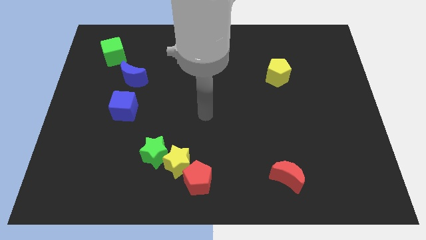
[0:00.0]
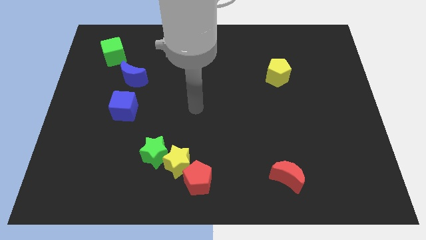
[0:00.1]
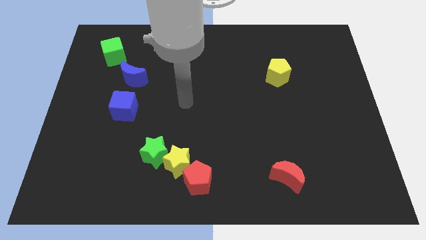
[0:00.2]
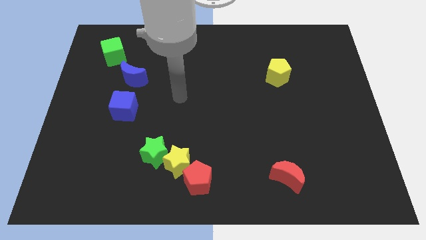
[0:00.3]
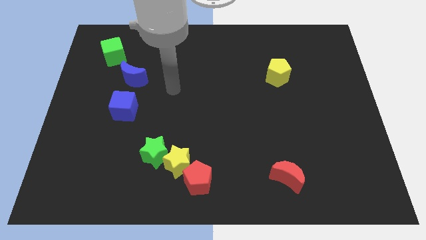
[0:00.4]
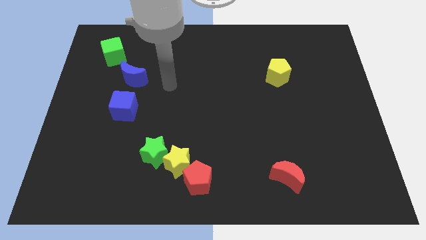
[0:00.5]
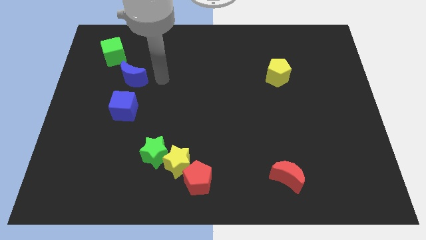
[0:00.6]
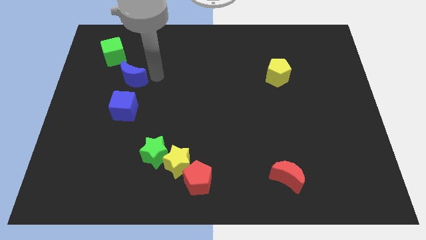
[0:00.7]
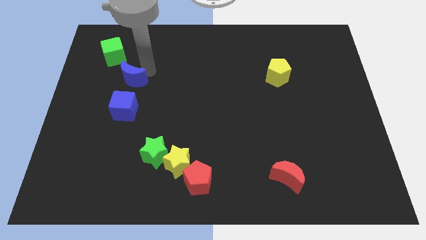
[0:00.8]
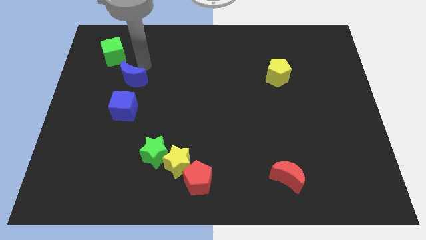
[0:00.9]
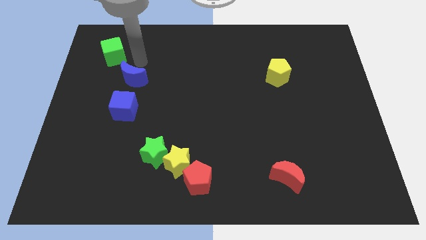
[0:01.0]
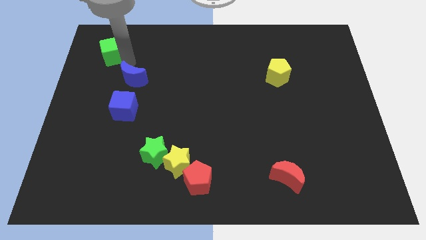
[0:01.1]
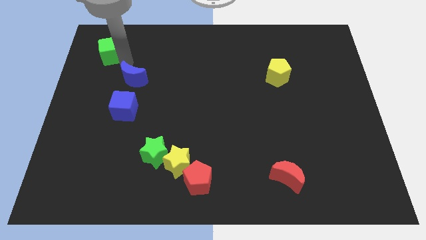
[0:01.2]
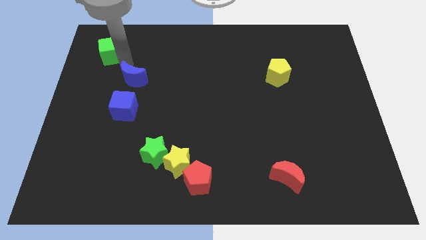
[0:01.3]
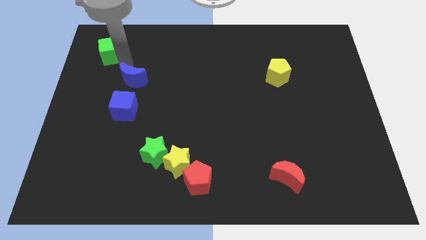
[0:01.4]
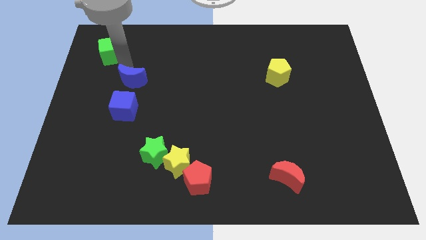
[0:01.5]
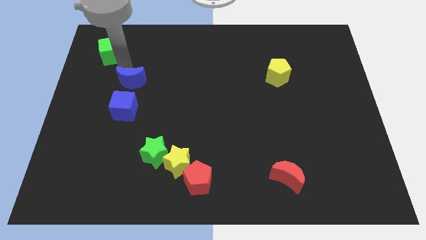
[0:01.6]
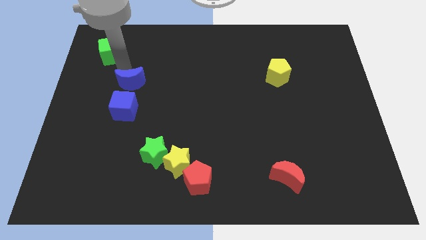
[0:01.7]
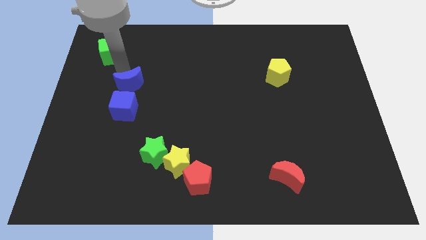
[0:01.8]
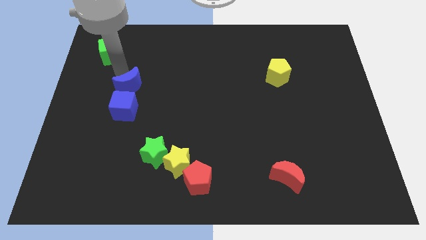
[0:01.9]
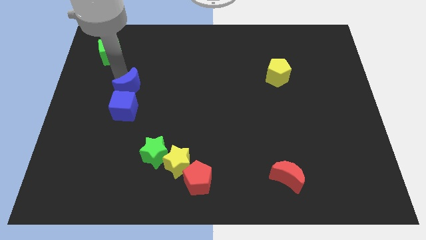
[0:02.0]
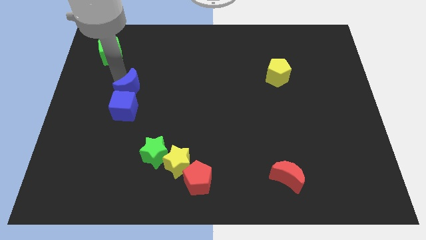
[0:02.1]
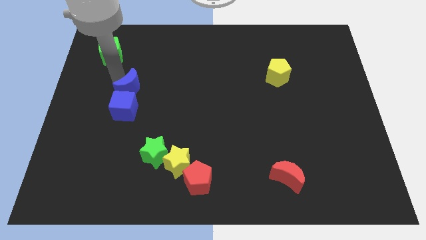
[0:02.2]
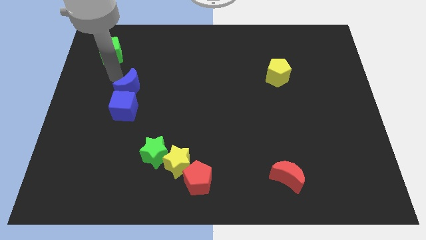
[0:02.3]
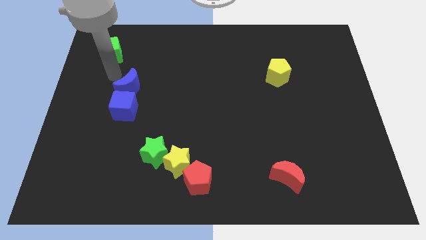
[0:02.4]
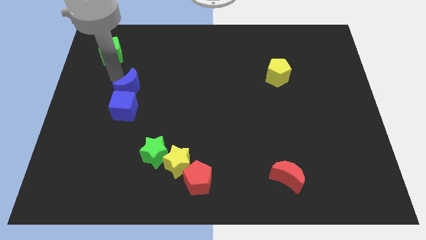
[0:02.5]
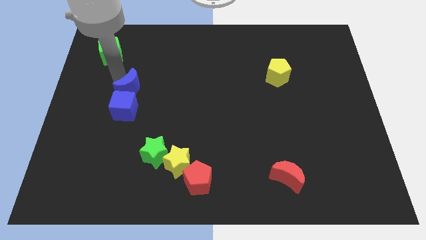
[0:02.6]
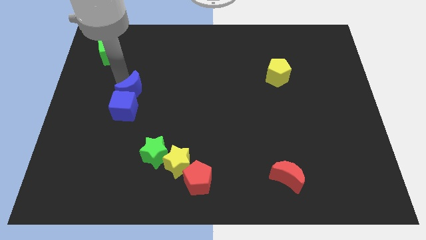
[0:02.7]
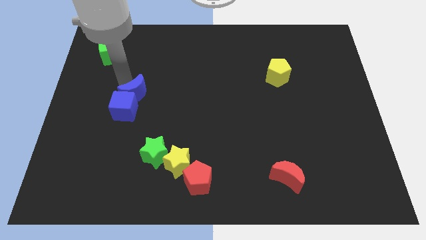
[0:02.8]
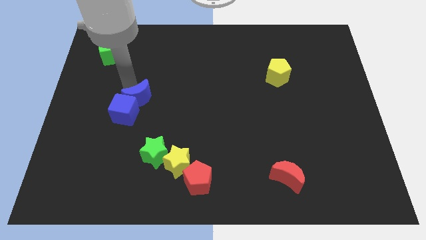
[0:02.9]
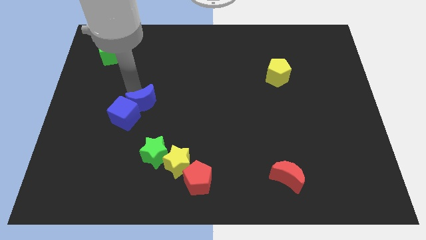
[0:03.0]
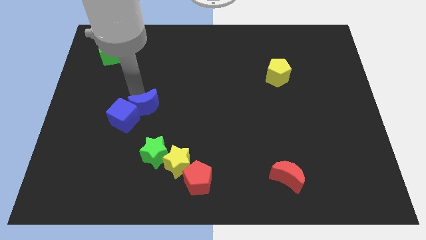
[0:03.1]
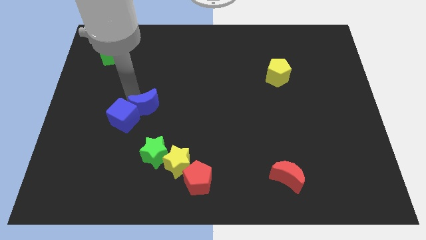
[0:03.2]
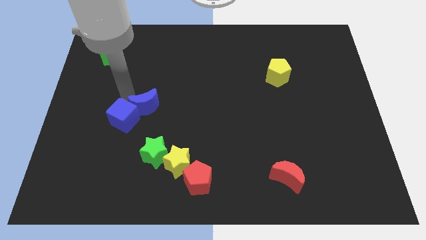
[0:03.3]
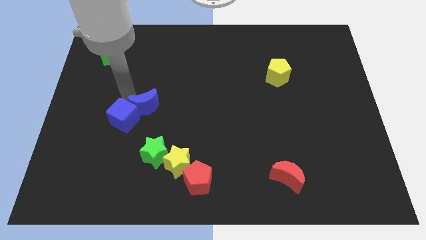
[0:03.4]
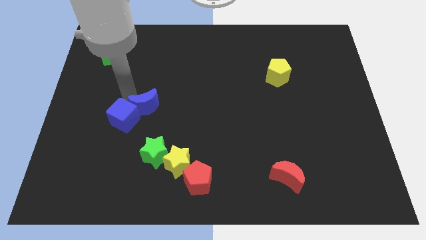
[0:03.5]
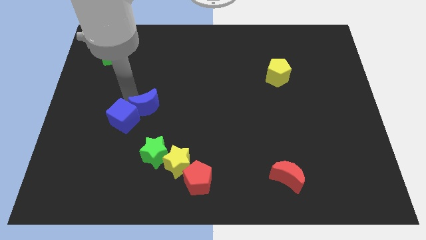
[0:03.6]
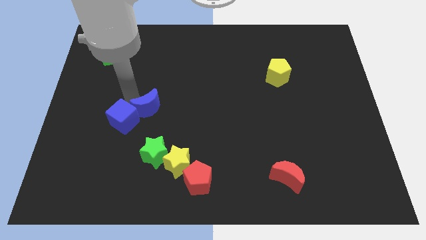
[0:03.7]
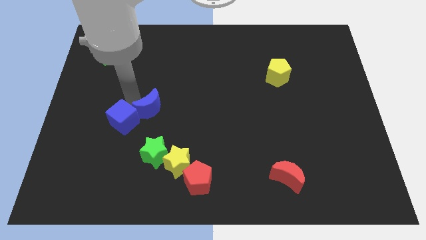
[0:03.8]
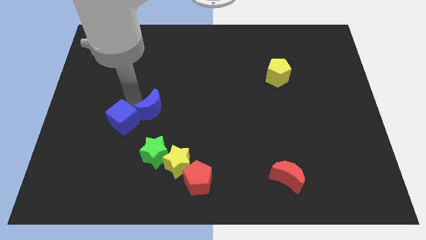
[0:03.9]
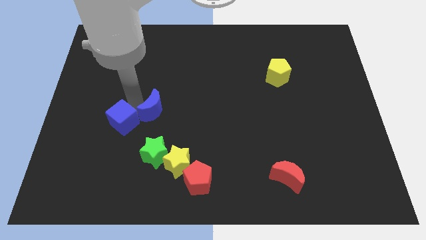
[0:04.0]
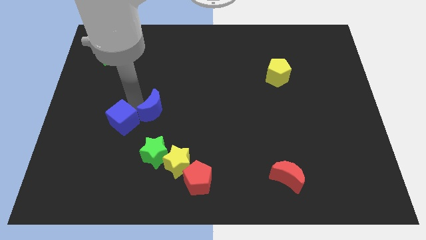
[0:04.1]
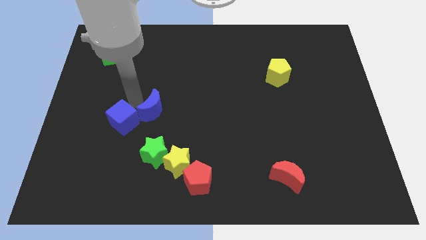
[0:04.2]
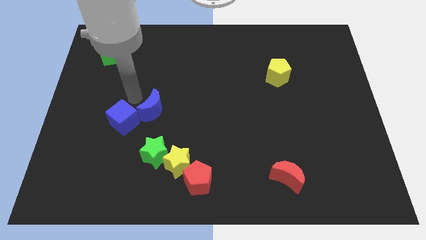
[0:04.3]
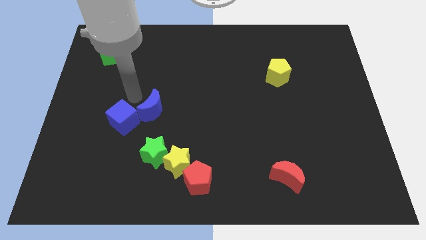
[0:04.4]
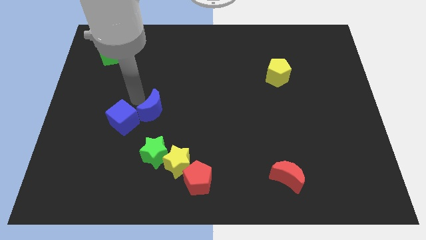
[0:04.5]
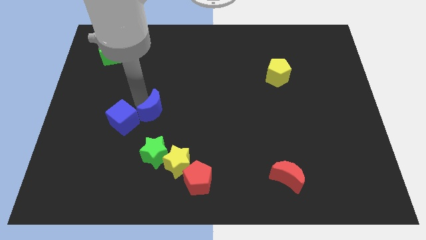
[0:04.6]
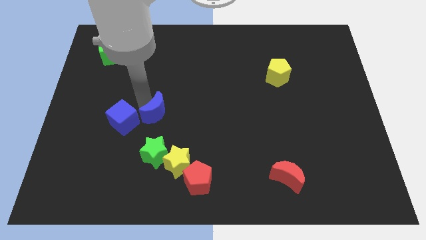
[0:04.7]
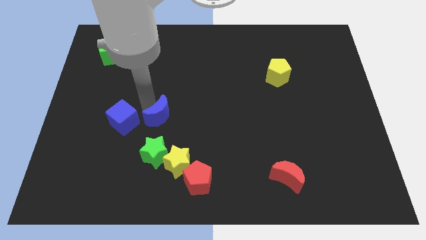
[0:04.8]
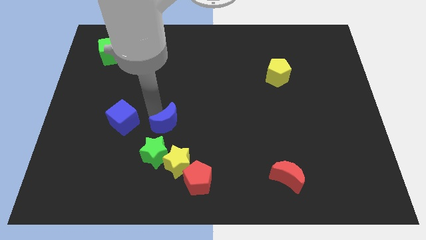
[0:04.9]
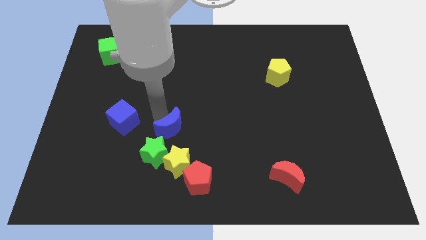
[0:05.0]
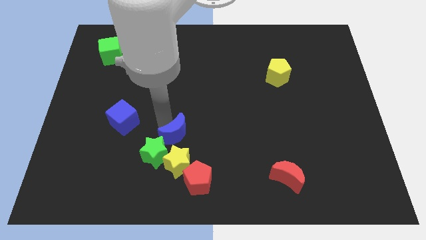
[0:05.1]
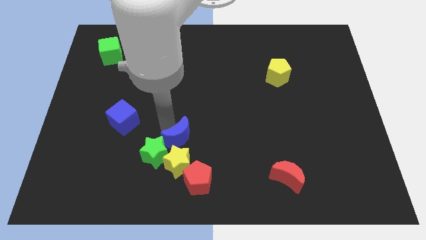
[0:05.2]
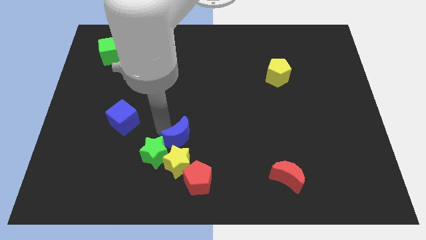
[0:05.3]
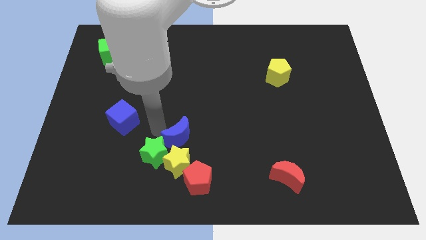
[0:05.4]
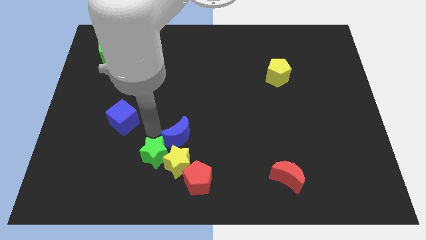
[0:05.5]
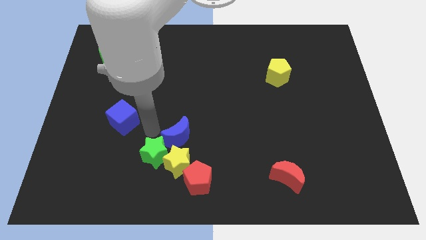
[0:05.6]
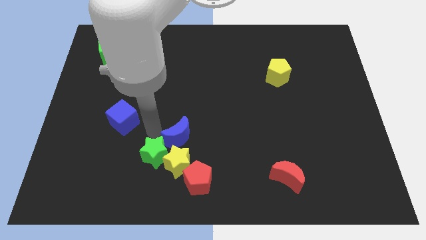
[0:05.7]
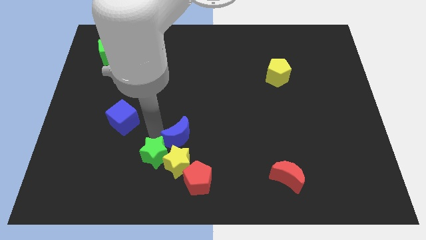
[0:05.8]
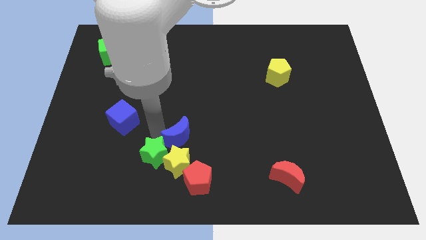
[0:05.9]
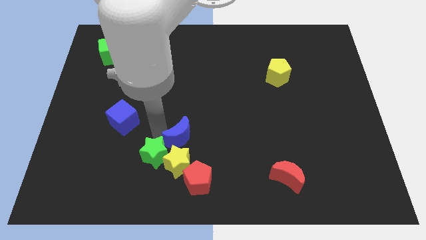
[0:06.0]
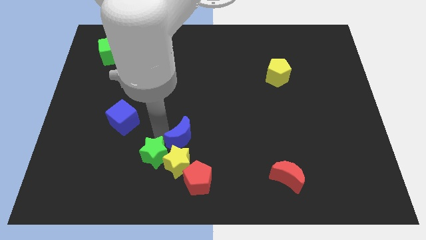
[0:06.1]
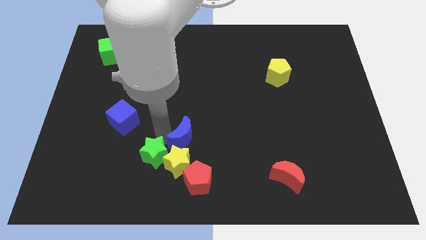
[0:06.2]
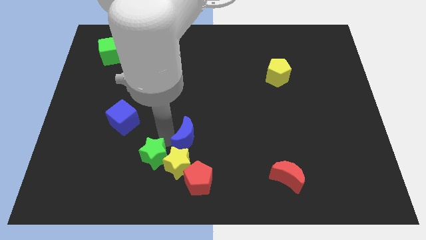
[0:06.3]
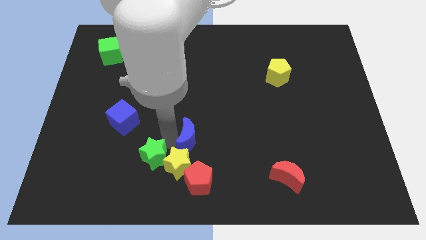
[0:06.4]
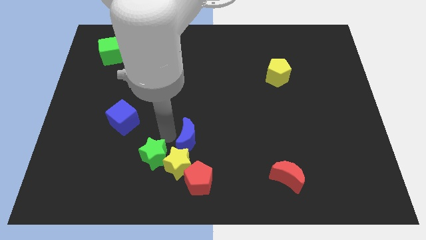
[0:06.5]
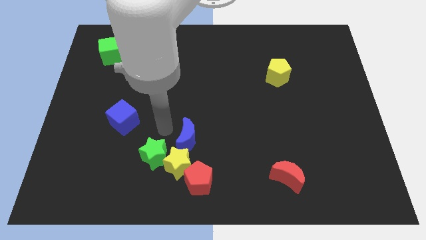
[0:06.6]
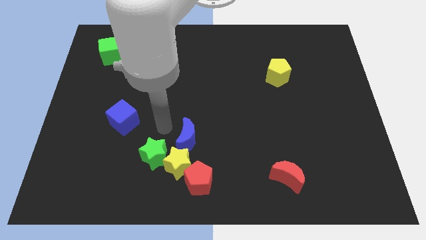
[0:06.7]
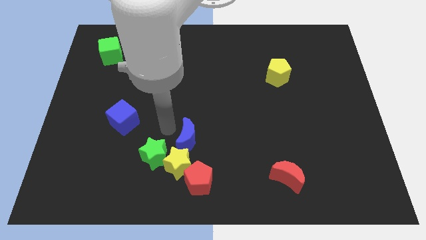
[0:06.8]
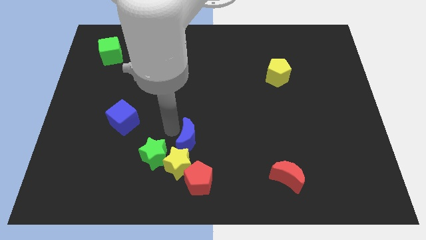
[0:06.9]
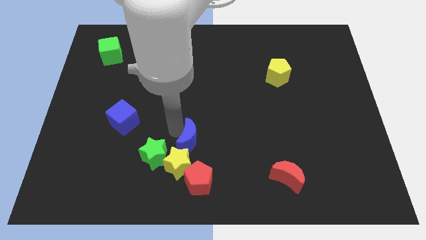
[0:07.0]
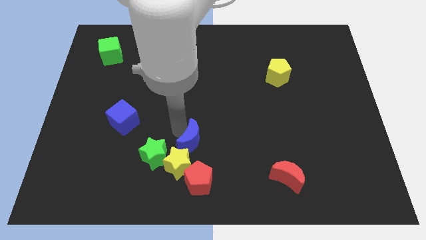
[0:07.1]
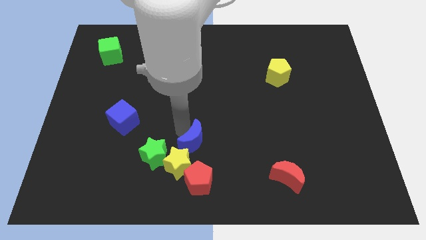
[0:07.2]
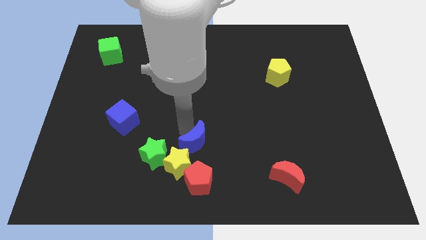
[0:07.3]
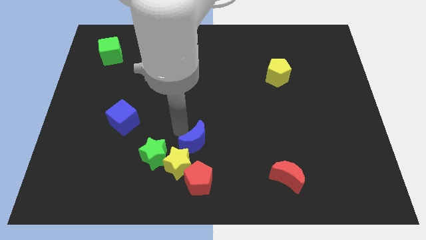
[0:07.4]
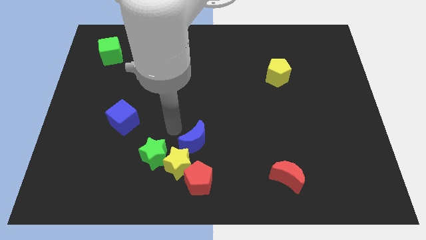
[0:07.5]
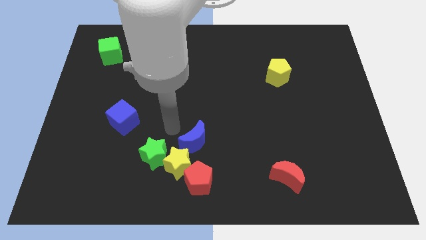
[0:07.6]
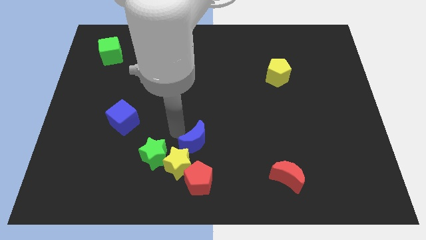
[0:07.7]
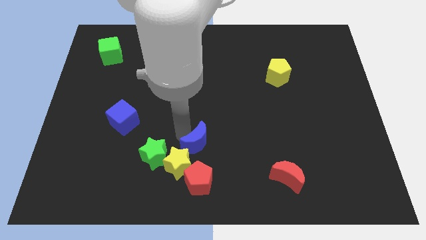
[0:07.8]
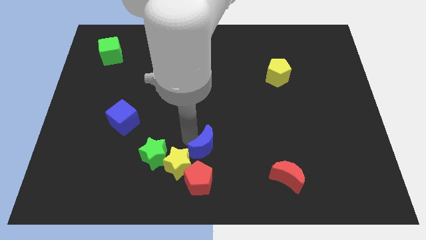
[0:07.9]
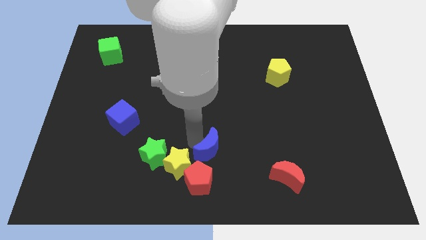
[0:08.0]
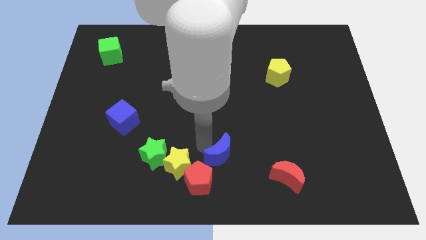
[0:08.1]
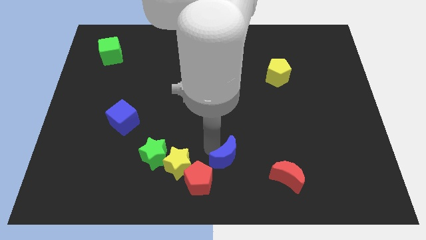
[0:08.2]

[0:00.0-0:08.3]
put the blue moon to the left side of the red moon
